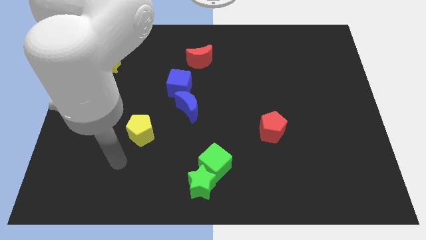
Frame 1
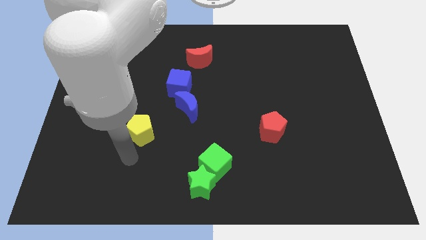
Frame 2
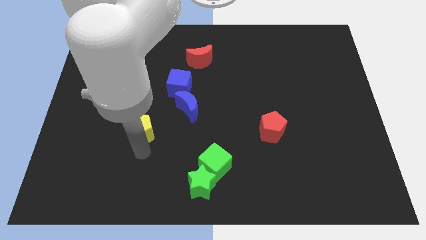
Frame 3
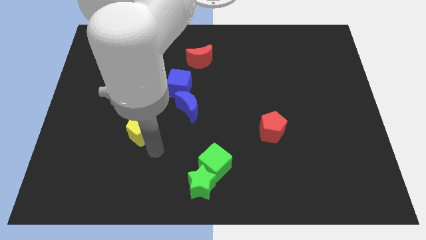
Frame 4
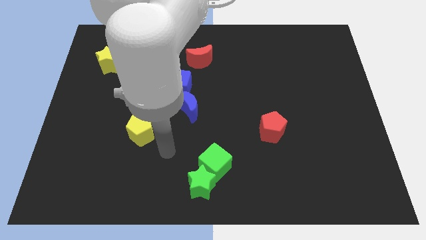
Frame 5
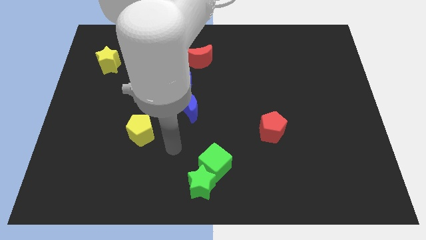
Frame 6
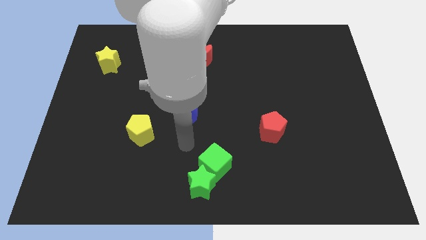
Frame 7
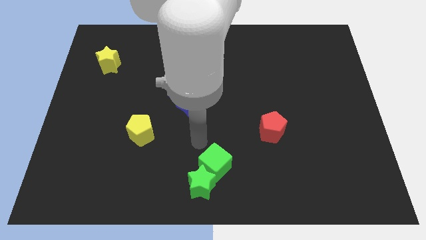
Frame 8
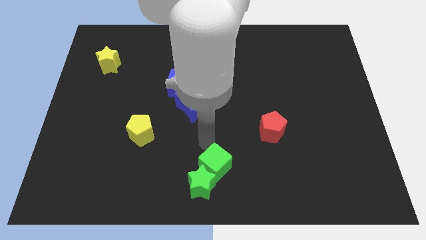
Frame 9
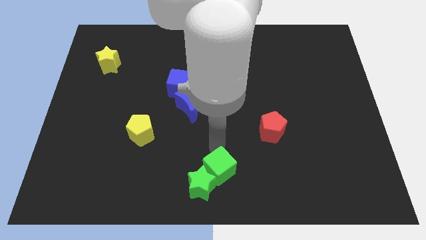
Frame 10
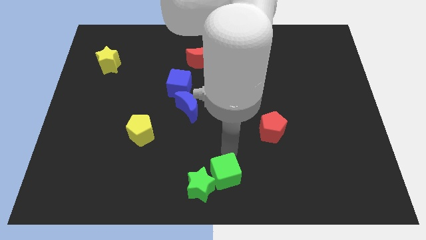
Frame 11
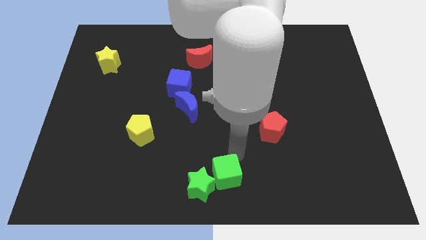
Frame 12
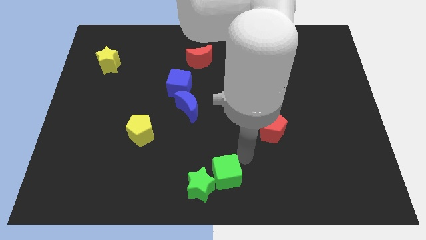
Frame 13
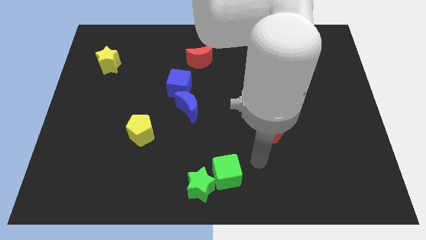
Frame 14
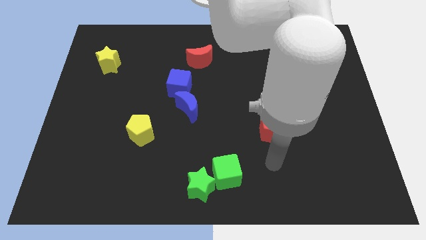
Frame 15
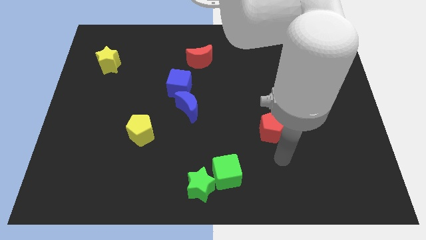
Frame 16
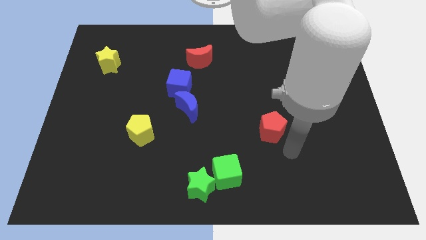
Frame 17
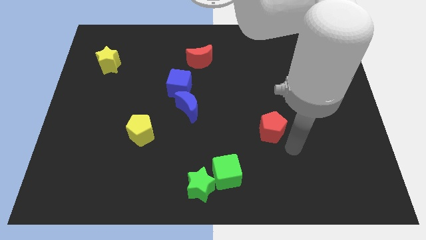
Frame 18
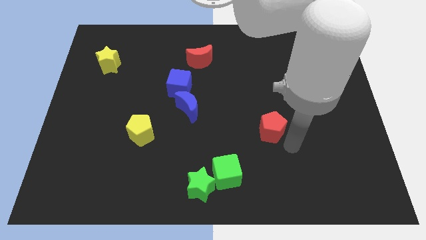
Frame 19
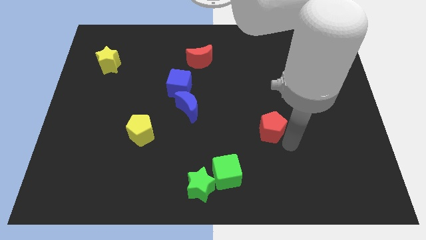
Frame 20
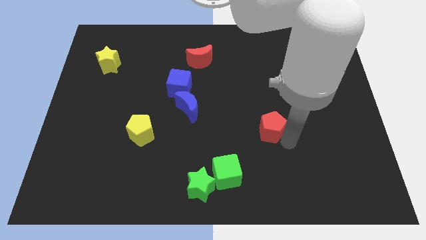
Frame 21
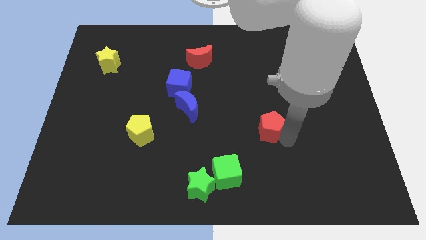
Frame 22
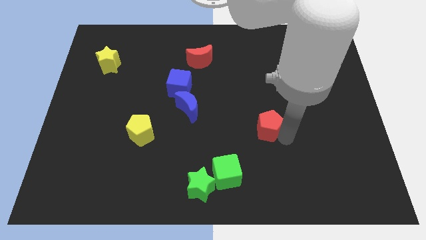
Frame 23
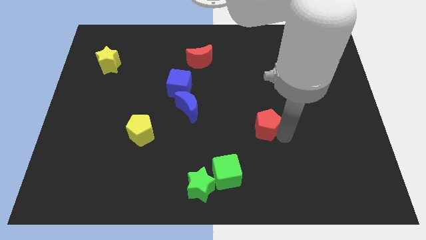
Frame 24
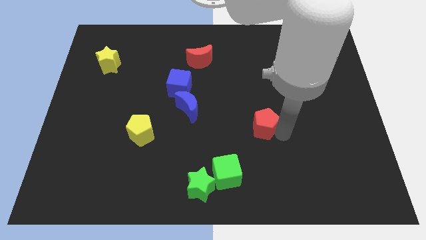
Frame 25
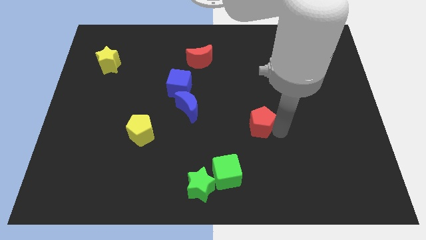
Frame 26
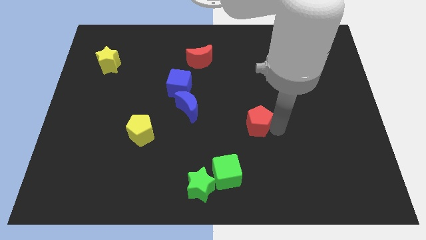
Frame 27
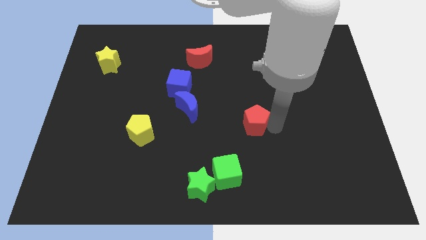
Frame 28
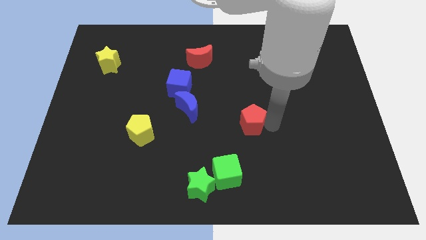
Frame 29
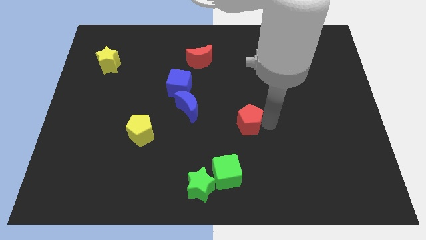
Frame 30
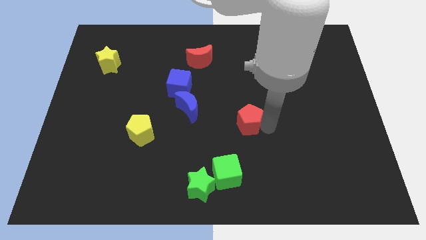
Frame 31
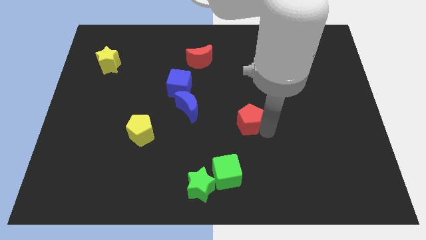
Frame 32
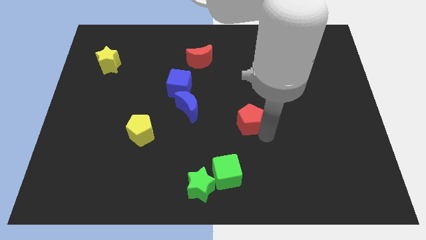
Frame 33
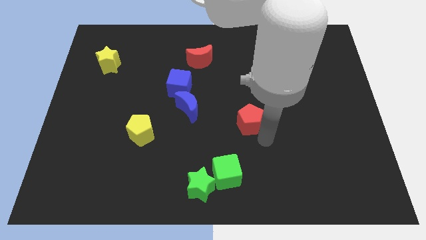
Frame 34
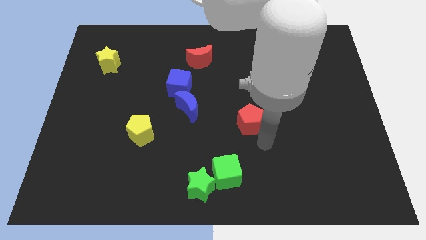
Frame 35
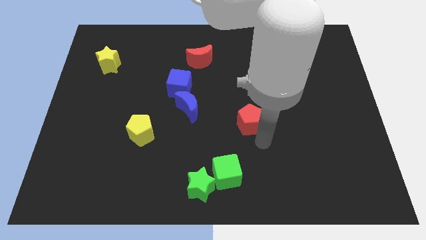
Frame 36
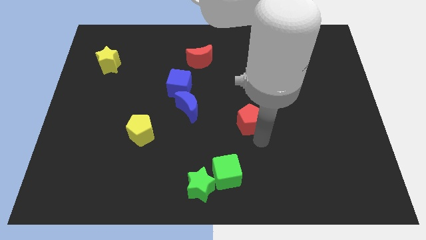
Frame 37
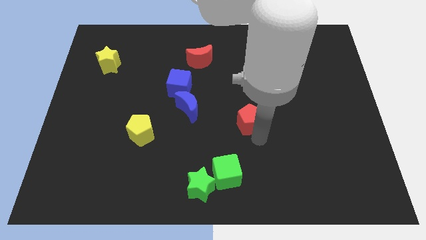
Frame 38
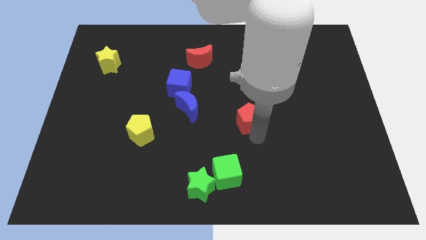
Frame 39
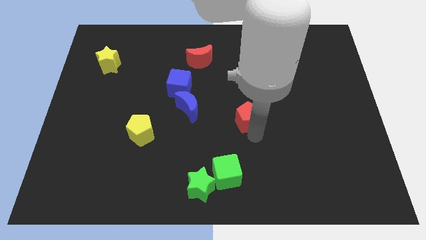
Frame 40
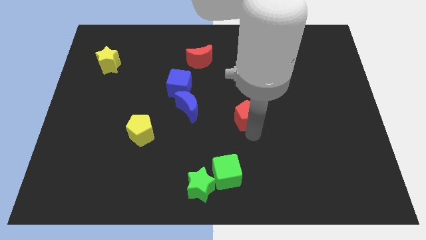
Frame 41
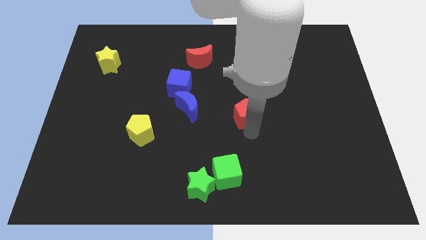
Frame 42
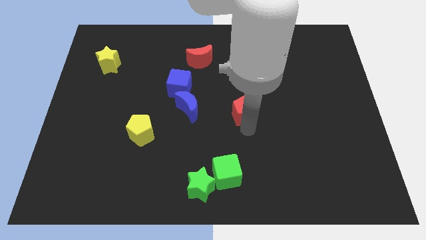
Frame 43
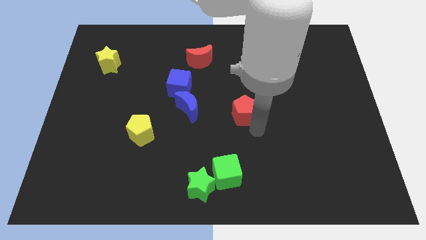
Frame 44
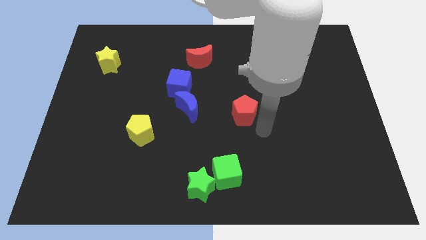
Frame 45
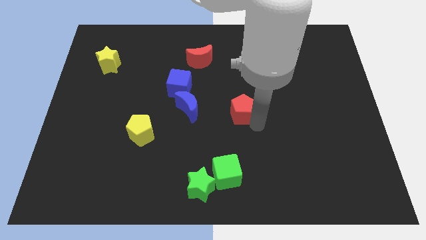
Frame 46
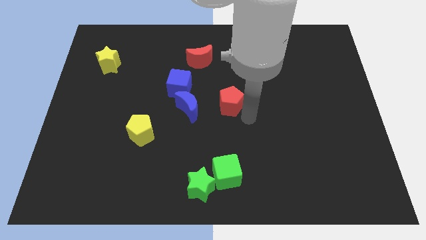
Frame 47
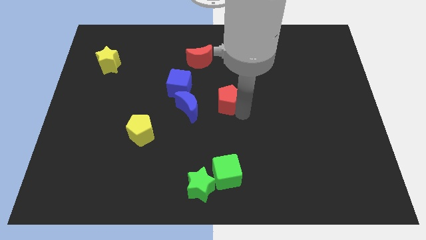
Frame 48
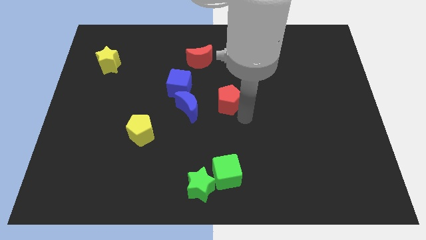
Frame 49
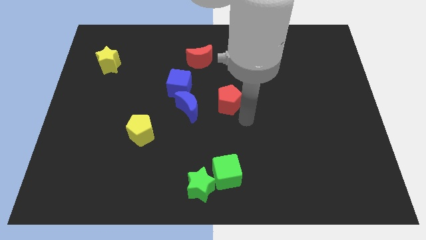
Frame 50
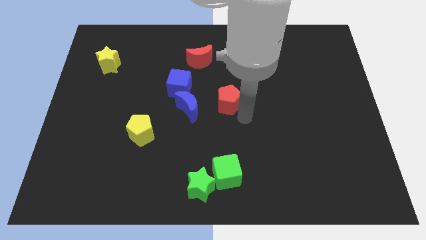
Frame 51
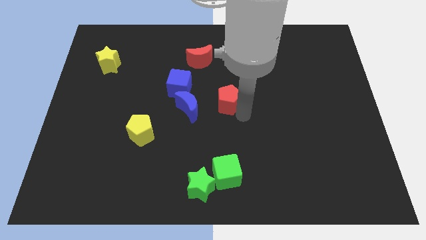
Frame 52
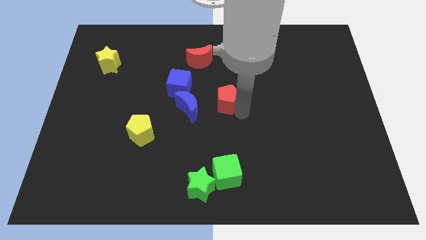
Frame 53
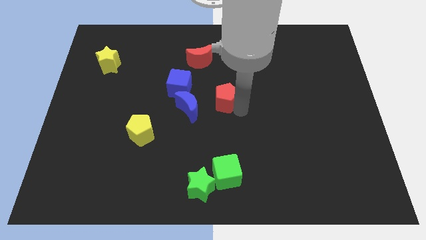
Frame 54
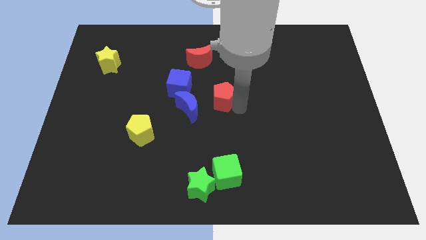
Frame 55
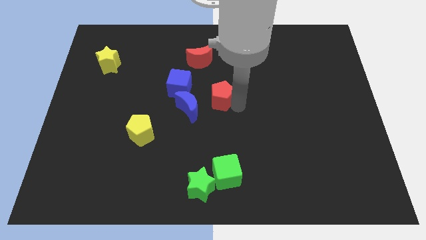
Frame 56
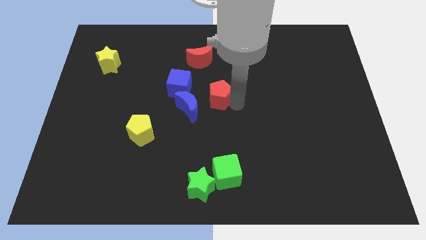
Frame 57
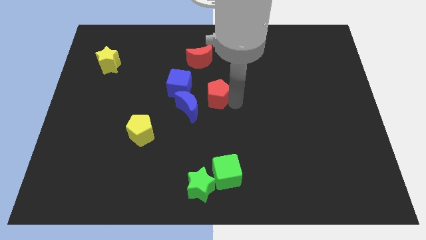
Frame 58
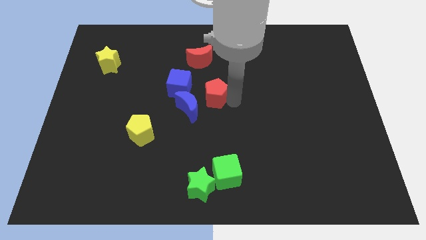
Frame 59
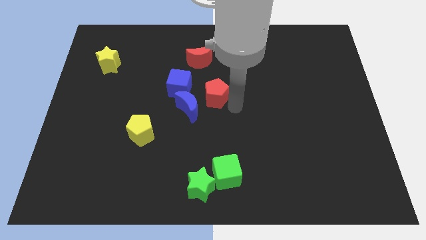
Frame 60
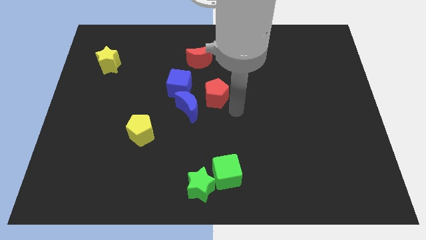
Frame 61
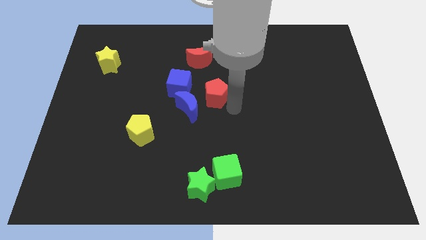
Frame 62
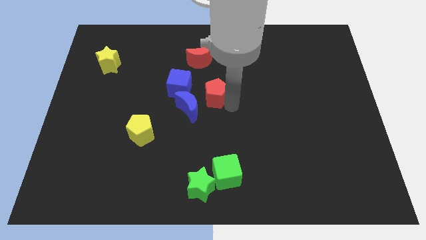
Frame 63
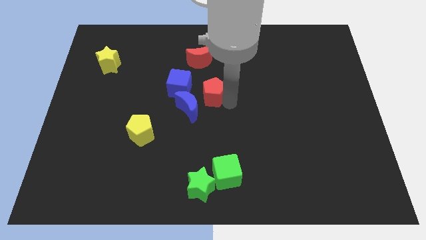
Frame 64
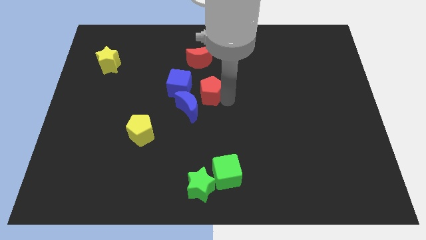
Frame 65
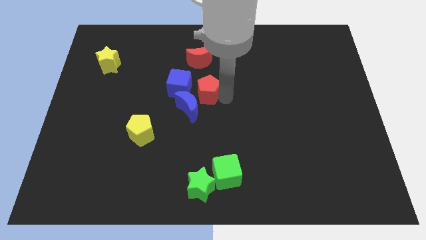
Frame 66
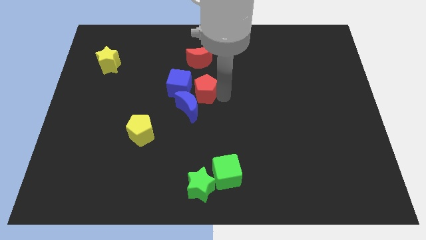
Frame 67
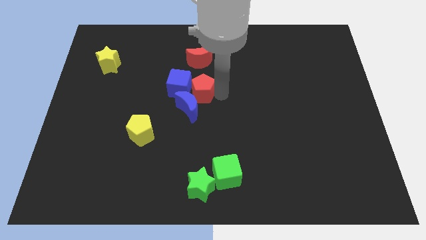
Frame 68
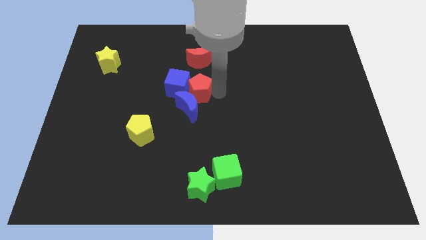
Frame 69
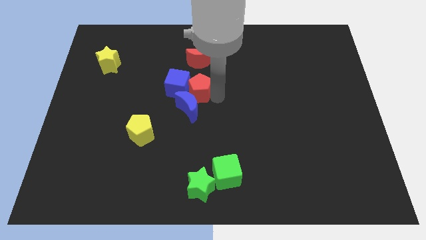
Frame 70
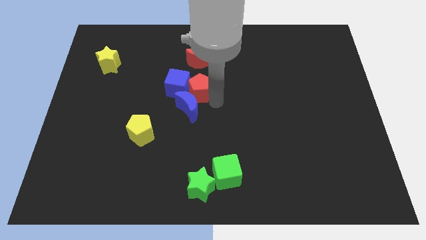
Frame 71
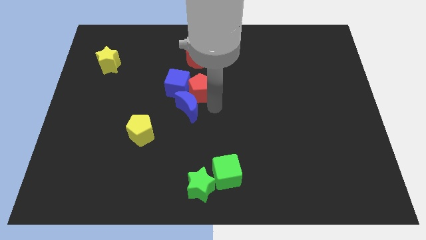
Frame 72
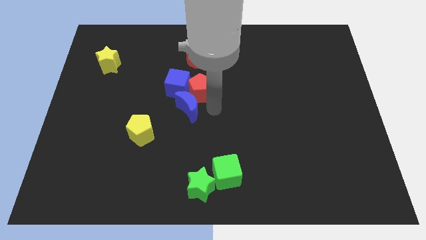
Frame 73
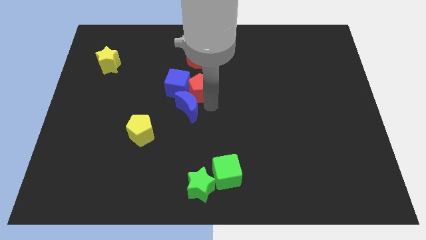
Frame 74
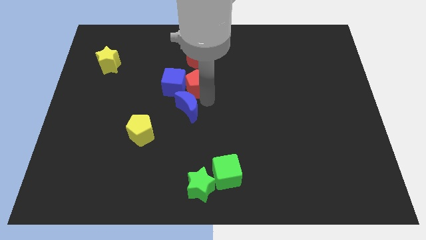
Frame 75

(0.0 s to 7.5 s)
slide the red pentagon up and to the left

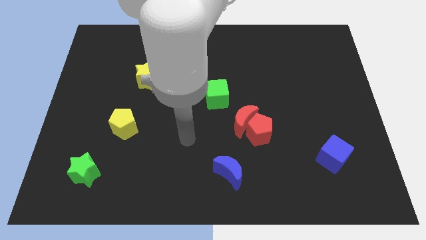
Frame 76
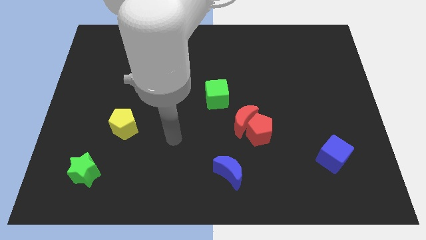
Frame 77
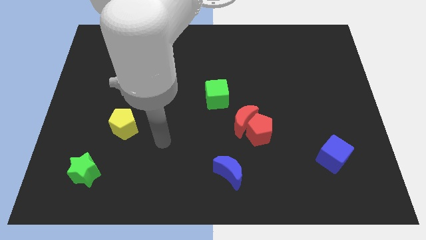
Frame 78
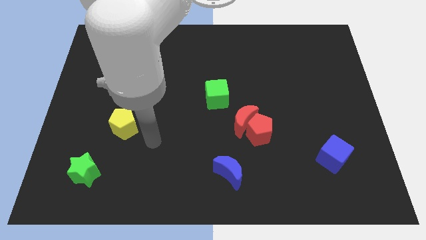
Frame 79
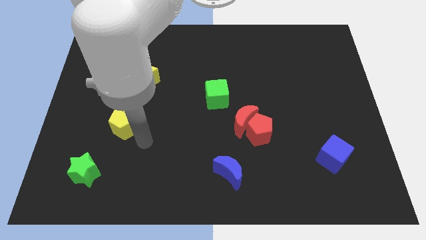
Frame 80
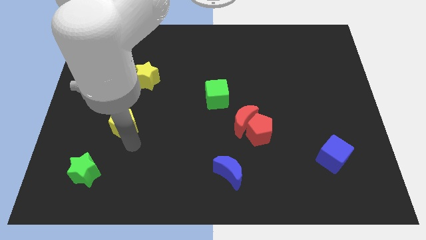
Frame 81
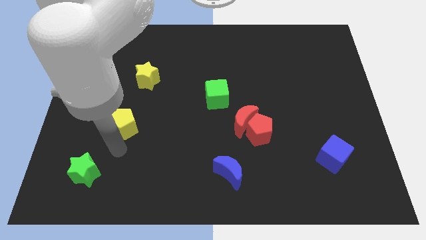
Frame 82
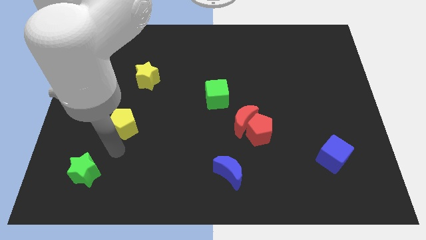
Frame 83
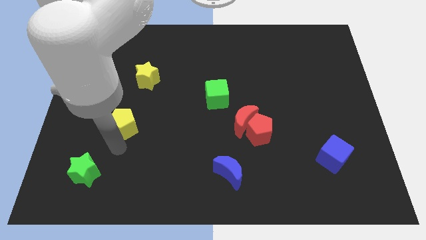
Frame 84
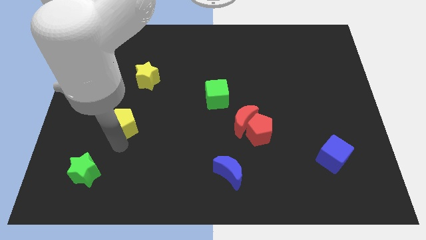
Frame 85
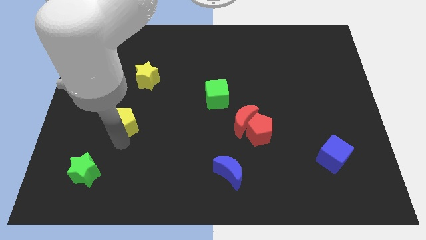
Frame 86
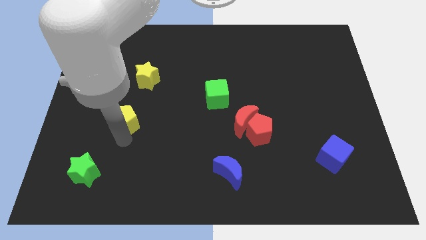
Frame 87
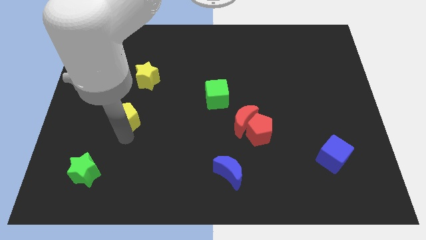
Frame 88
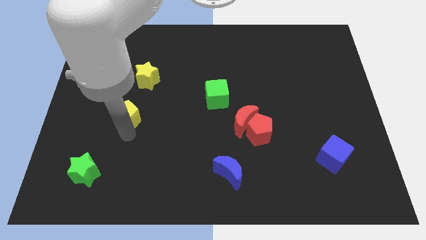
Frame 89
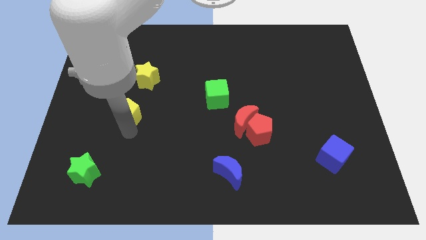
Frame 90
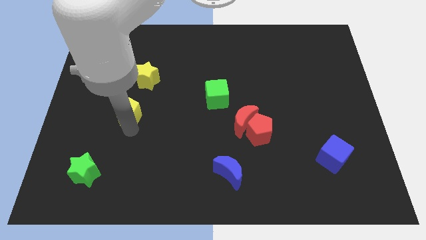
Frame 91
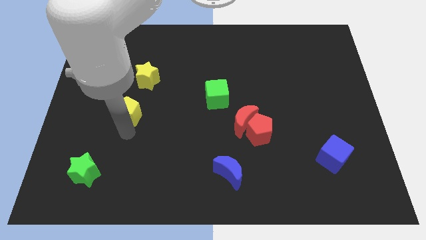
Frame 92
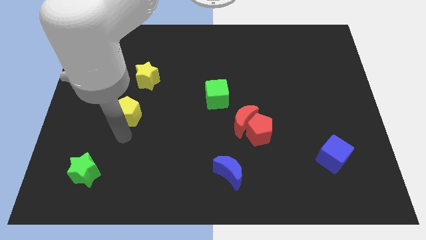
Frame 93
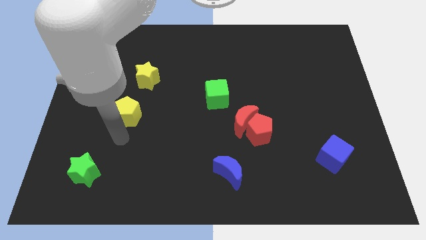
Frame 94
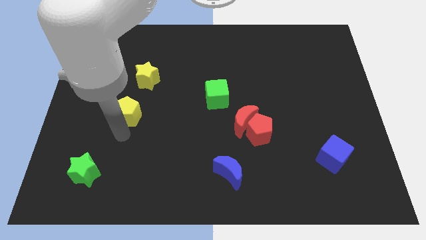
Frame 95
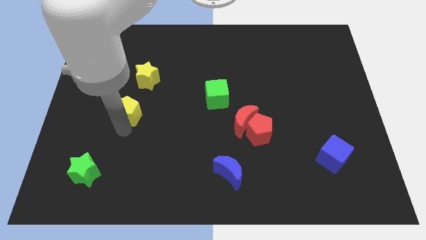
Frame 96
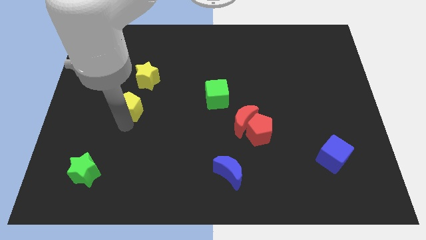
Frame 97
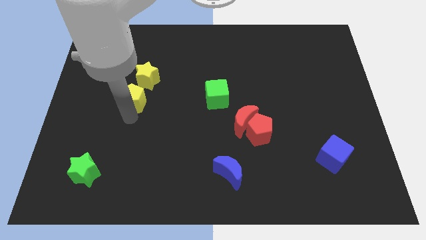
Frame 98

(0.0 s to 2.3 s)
slightly push the yellow pentagon up
